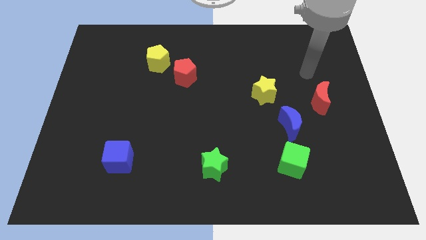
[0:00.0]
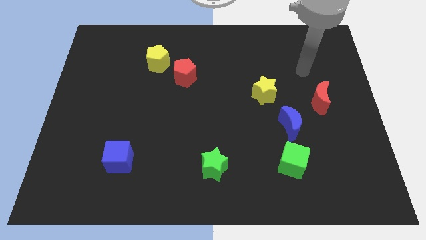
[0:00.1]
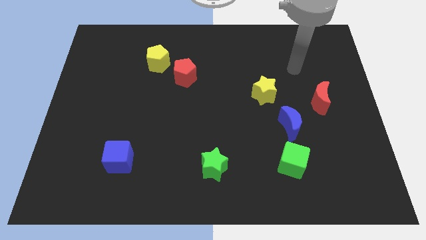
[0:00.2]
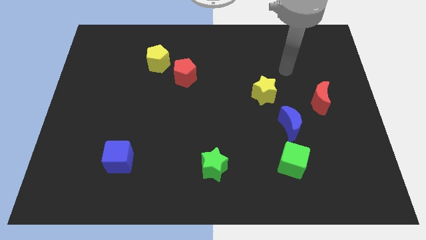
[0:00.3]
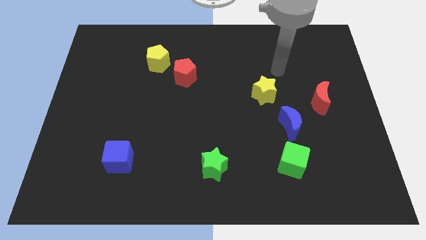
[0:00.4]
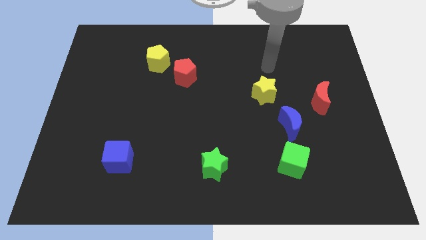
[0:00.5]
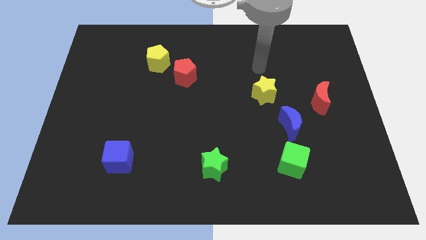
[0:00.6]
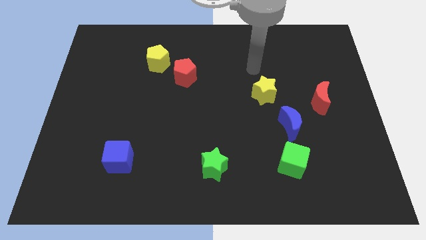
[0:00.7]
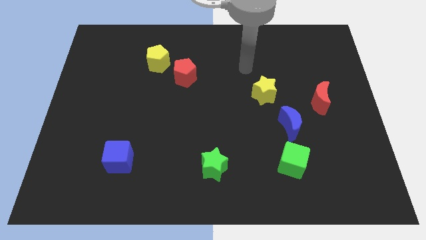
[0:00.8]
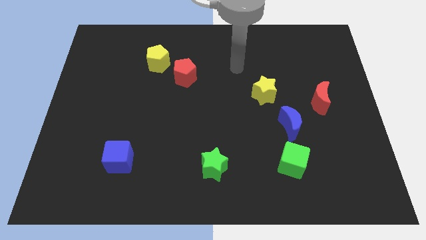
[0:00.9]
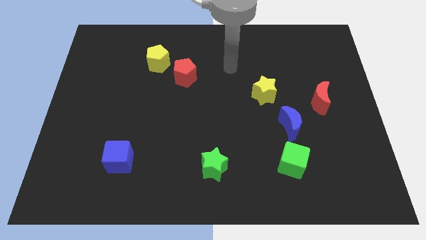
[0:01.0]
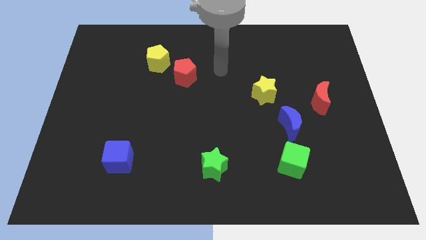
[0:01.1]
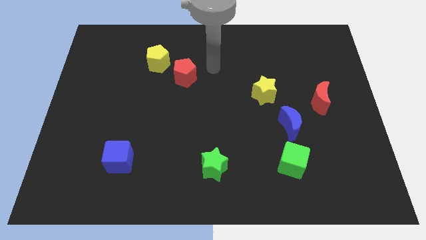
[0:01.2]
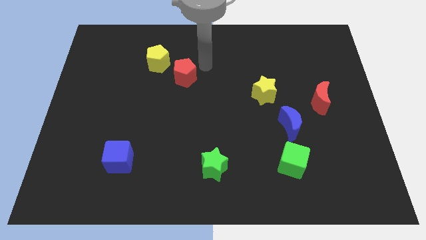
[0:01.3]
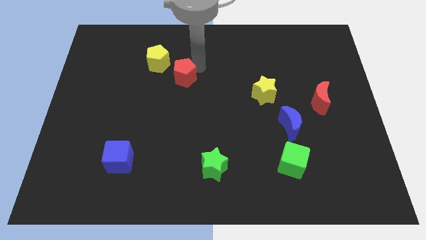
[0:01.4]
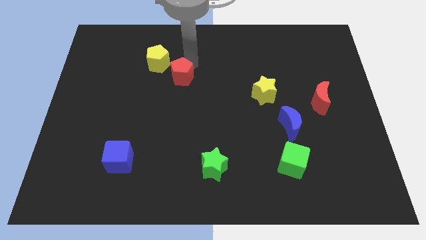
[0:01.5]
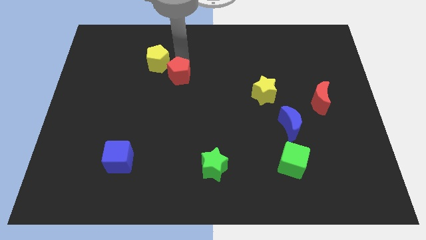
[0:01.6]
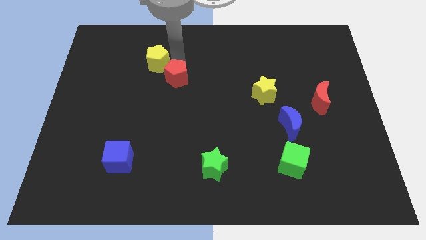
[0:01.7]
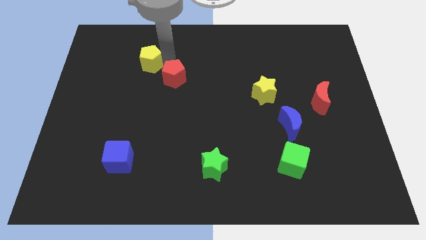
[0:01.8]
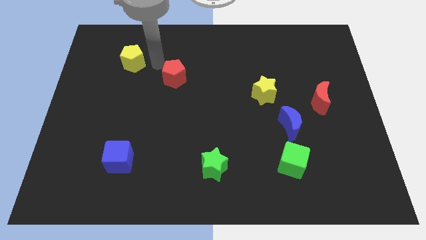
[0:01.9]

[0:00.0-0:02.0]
pull the red pentagon apart from the yellow pentagon

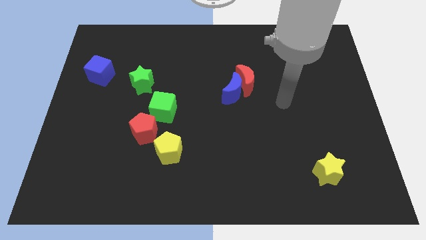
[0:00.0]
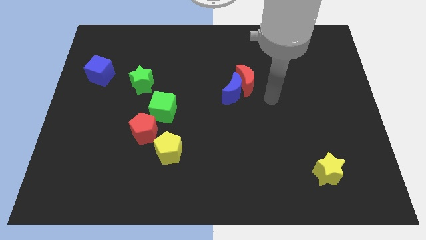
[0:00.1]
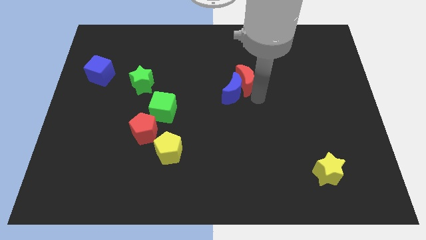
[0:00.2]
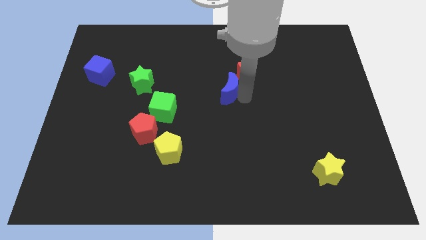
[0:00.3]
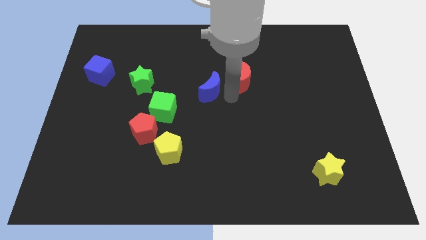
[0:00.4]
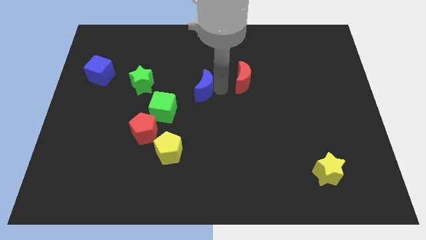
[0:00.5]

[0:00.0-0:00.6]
separate the red moon from the blue moon

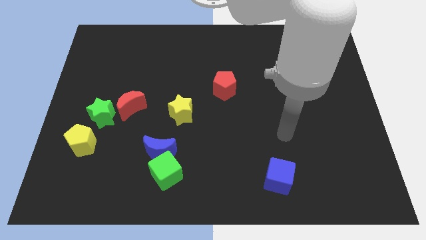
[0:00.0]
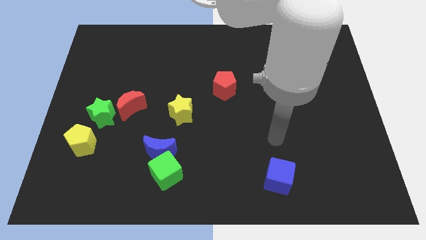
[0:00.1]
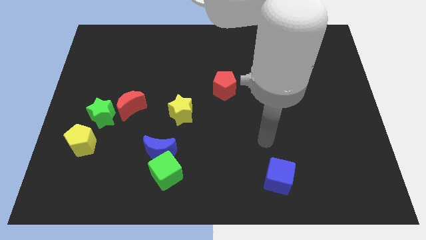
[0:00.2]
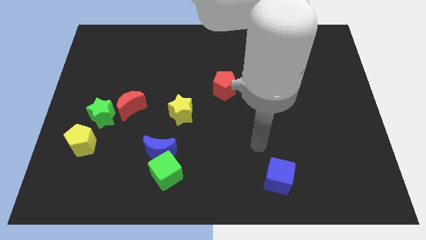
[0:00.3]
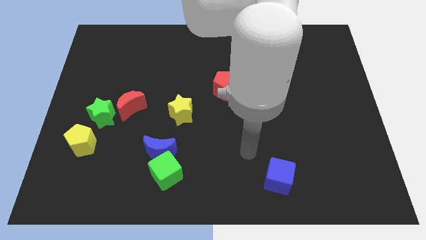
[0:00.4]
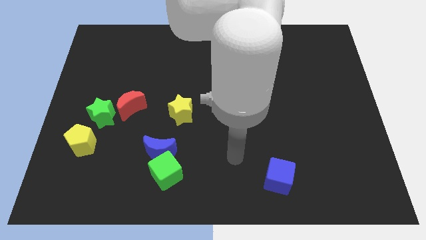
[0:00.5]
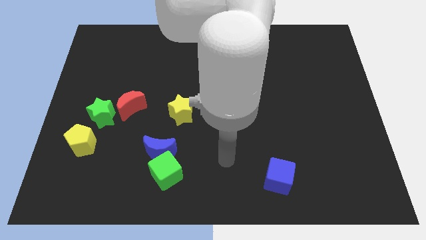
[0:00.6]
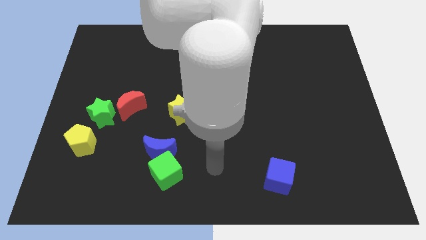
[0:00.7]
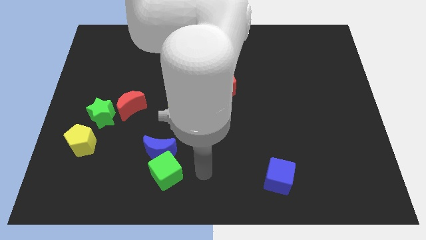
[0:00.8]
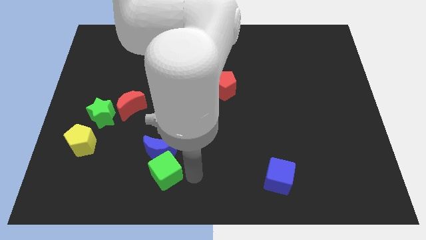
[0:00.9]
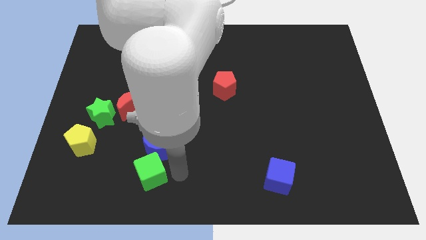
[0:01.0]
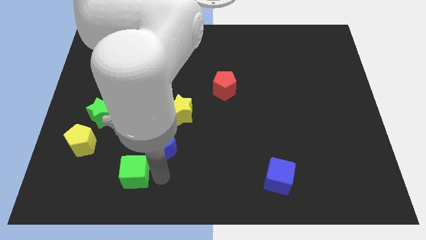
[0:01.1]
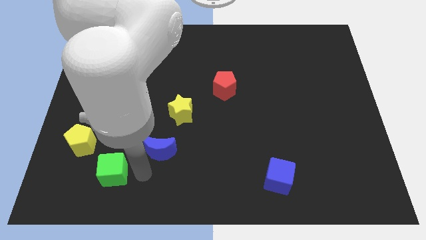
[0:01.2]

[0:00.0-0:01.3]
separate the blue moon from the green cube

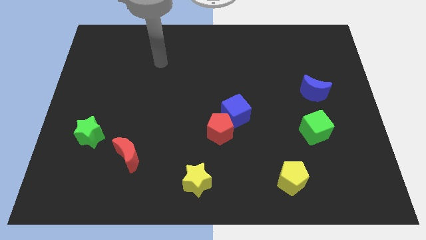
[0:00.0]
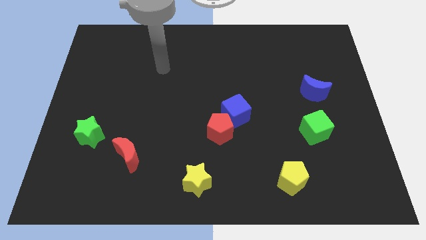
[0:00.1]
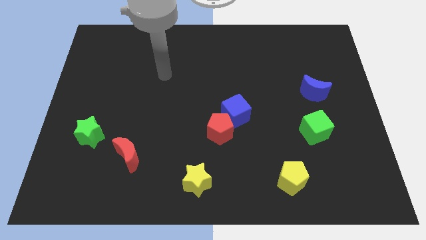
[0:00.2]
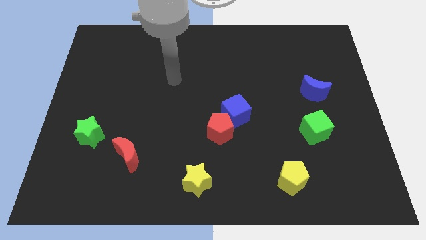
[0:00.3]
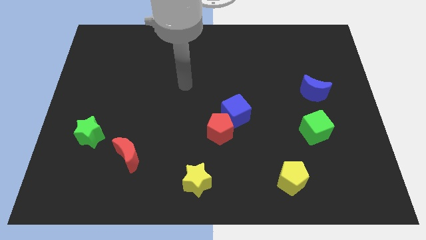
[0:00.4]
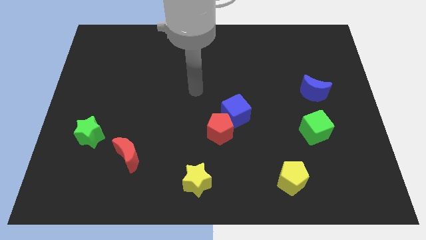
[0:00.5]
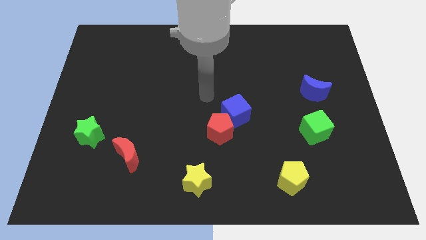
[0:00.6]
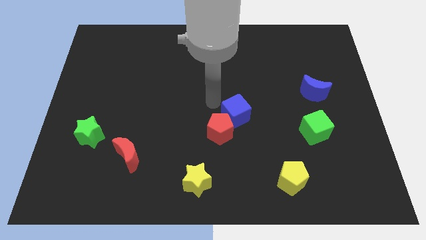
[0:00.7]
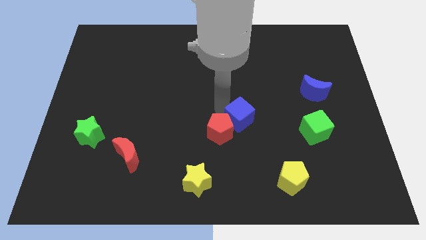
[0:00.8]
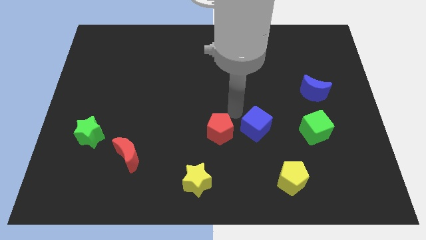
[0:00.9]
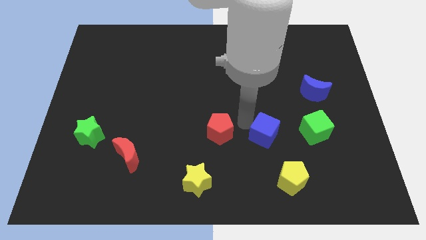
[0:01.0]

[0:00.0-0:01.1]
pull the red pentagon apart from the blue cube

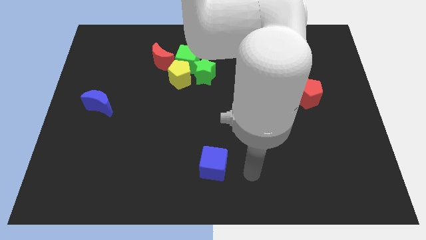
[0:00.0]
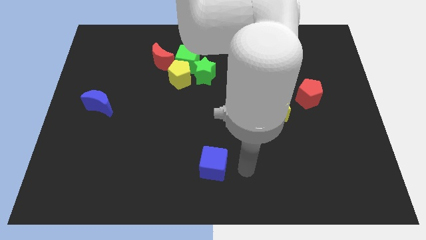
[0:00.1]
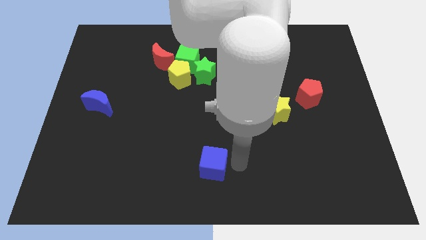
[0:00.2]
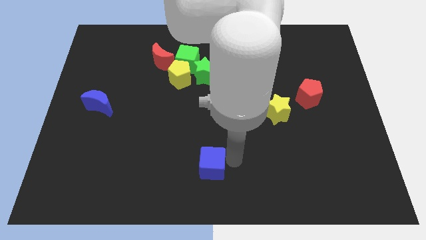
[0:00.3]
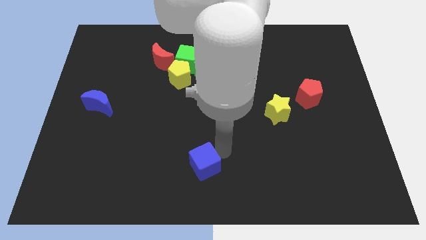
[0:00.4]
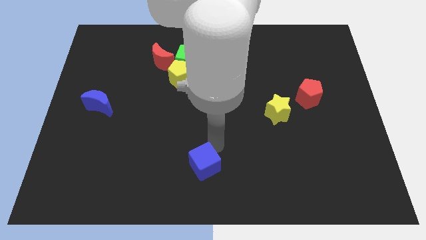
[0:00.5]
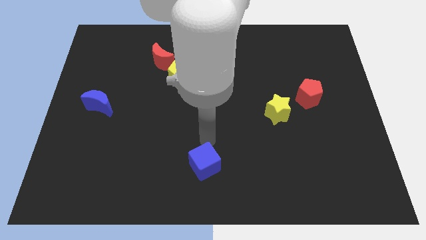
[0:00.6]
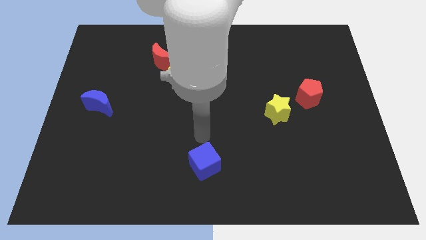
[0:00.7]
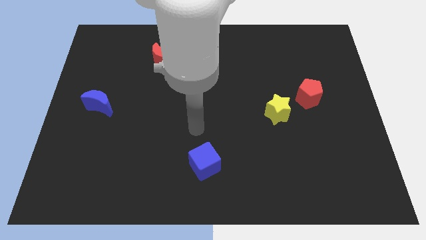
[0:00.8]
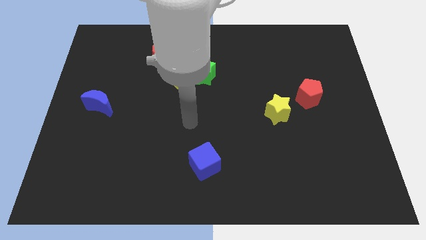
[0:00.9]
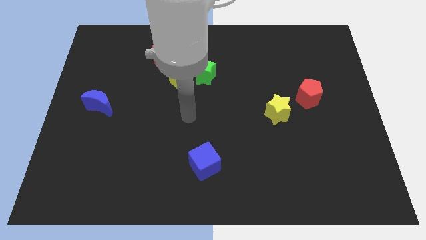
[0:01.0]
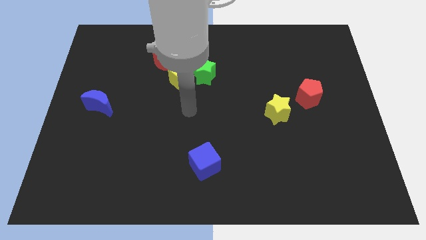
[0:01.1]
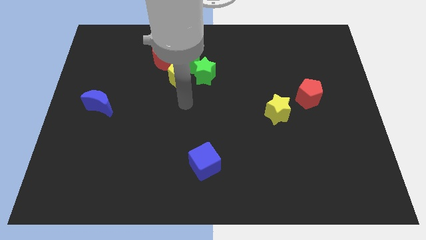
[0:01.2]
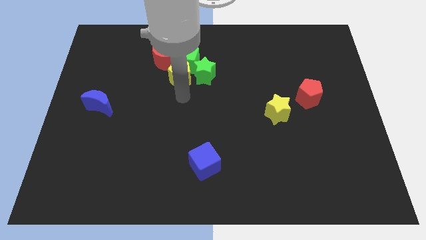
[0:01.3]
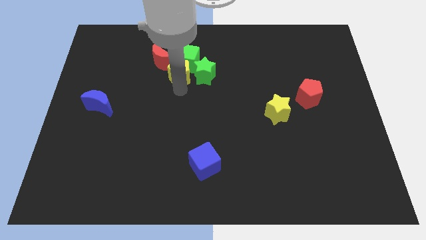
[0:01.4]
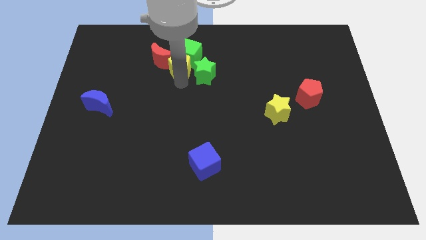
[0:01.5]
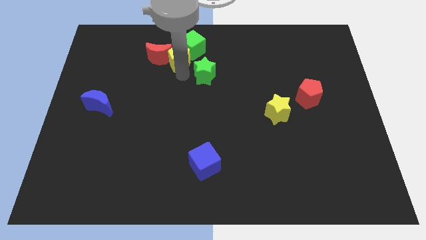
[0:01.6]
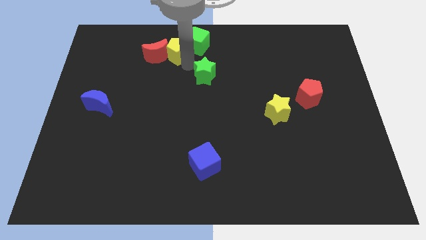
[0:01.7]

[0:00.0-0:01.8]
separate the green star from the yellow pentagon and green cube

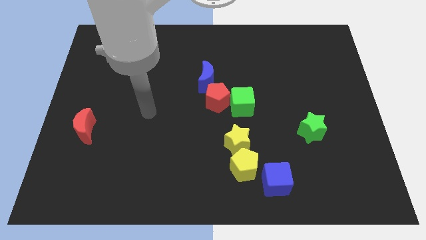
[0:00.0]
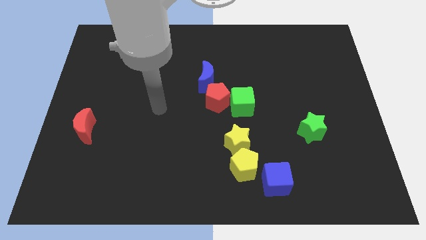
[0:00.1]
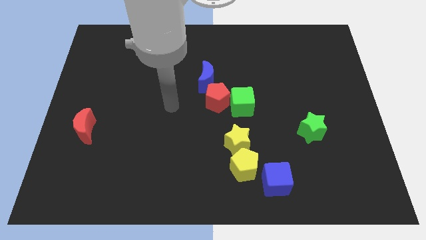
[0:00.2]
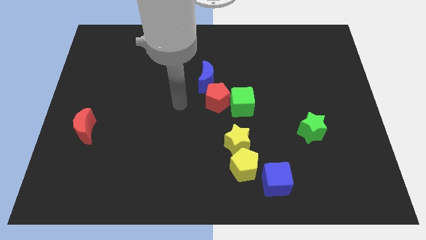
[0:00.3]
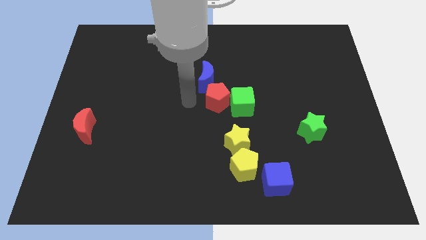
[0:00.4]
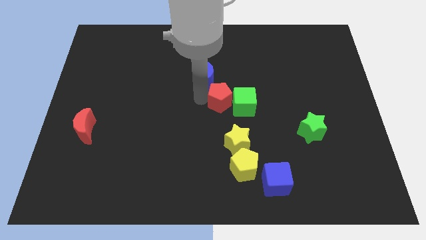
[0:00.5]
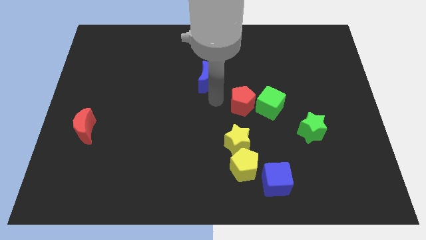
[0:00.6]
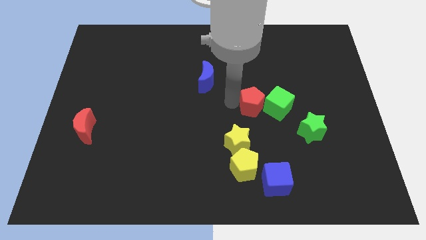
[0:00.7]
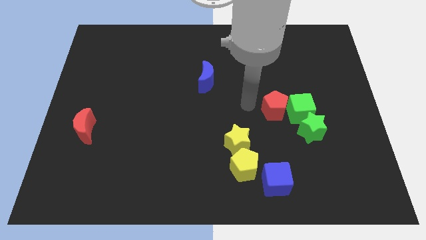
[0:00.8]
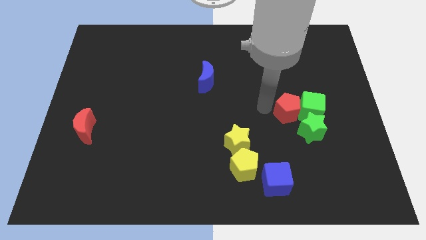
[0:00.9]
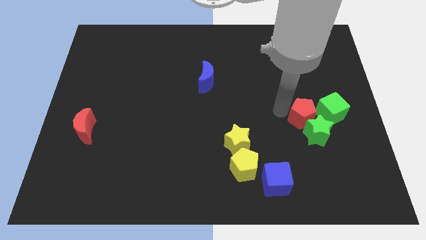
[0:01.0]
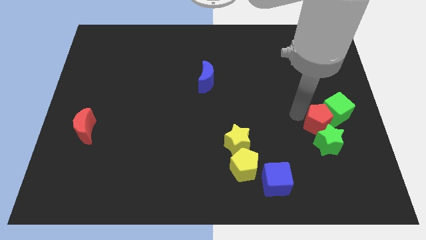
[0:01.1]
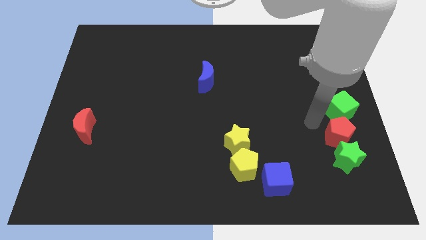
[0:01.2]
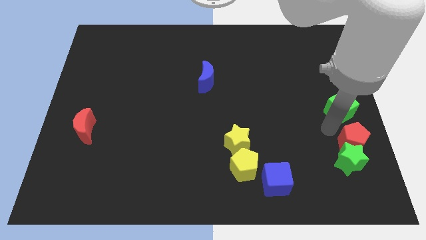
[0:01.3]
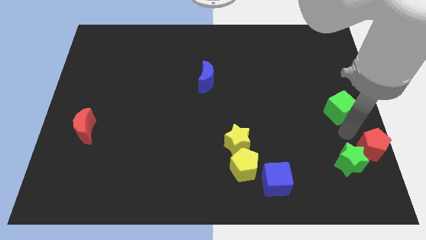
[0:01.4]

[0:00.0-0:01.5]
separate the green cube from the red pentagon

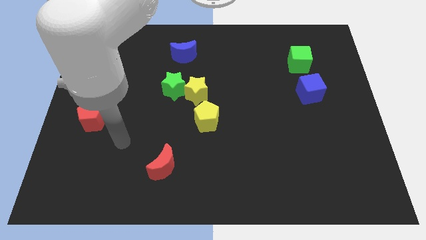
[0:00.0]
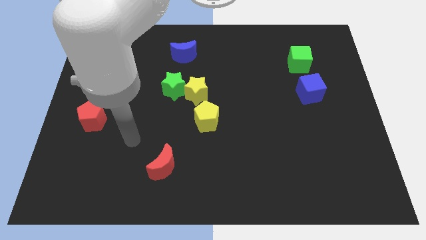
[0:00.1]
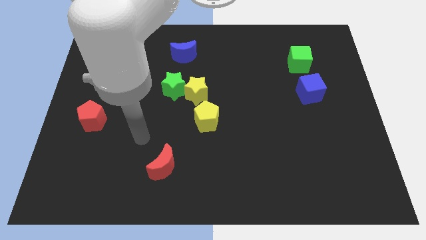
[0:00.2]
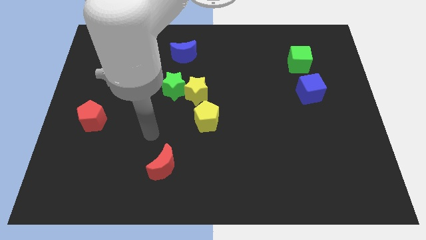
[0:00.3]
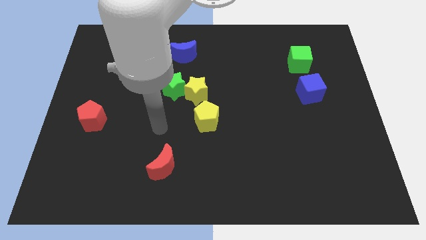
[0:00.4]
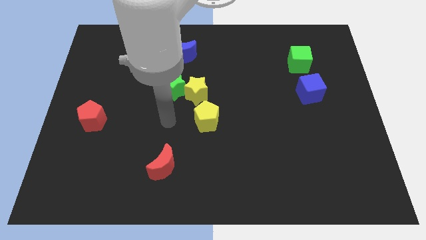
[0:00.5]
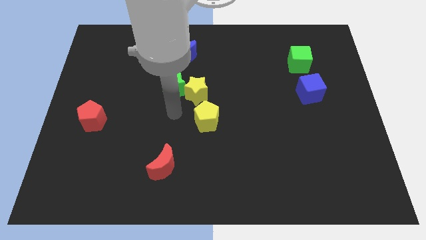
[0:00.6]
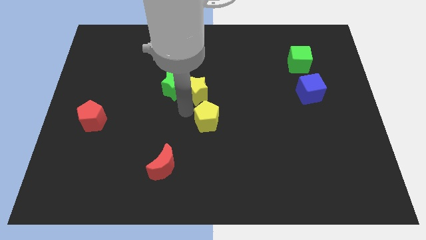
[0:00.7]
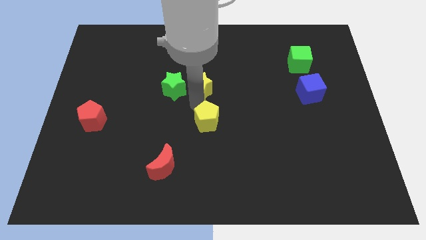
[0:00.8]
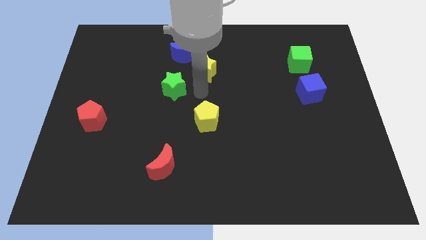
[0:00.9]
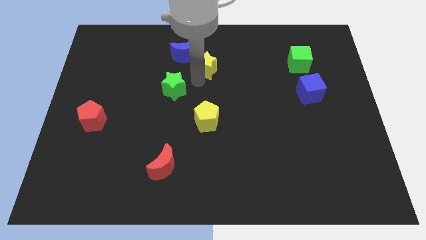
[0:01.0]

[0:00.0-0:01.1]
move the green star away from the yellow star
